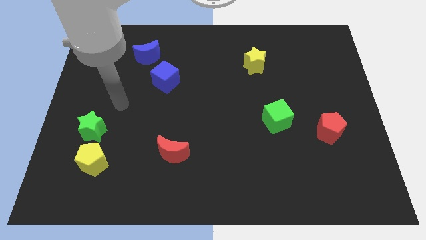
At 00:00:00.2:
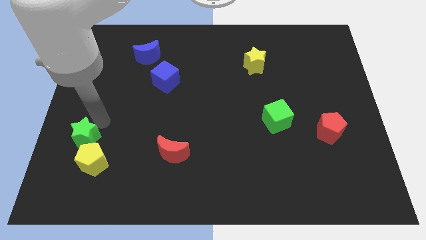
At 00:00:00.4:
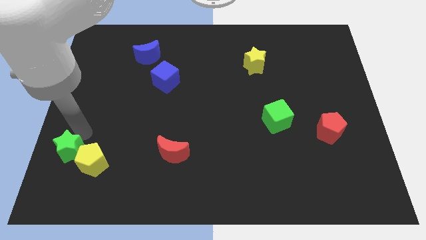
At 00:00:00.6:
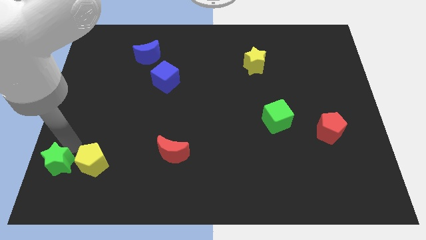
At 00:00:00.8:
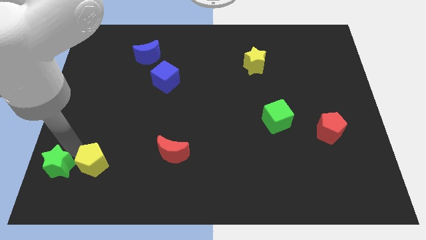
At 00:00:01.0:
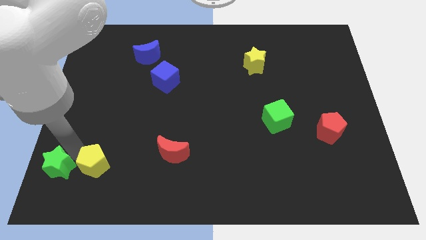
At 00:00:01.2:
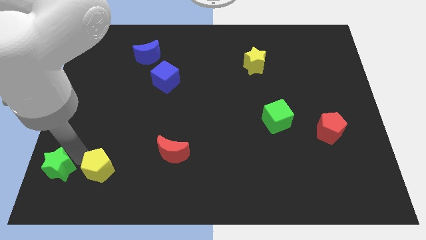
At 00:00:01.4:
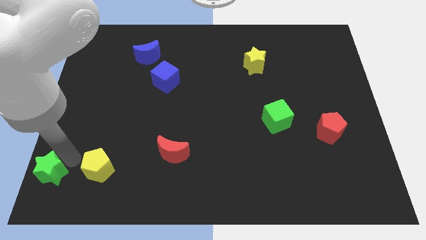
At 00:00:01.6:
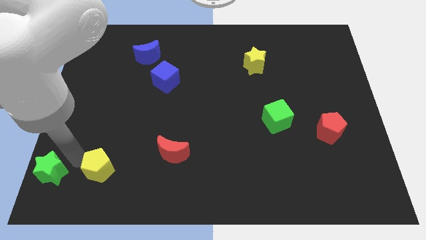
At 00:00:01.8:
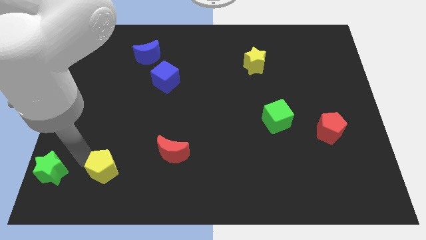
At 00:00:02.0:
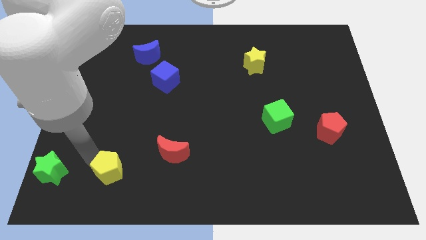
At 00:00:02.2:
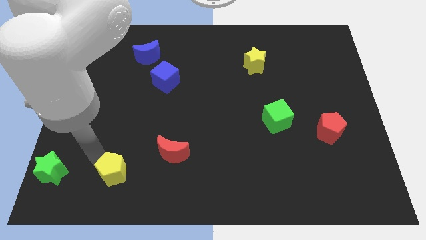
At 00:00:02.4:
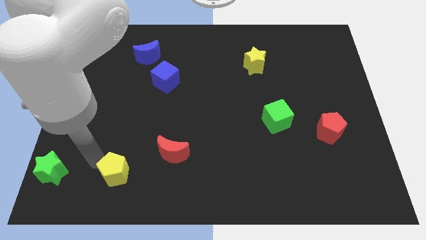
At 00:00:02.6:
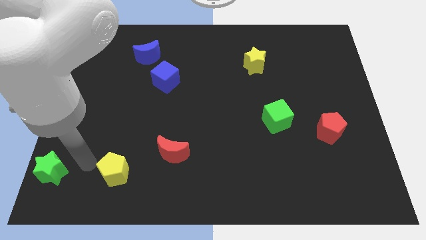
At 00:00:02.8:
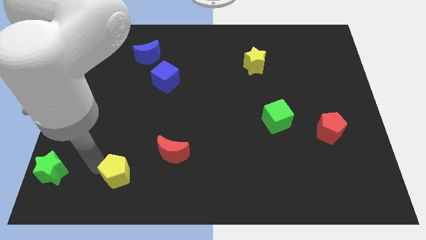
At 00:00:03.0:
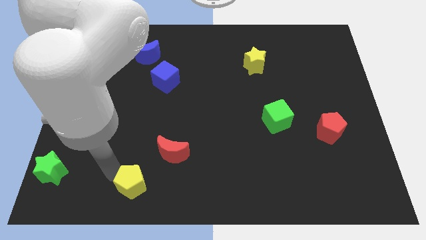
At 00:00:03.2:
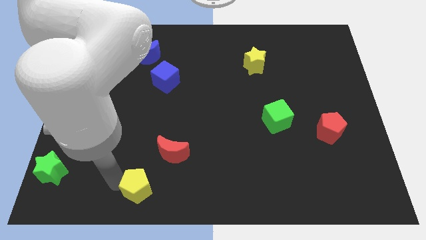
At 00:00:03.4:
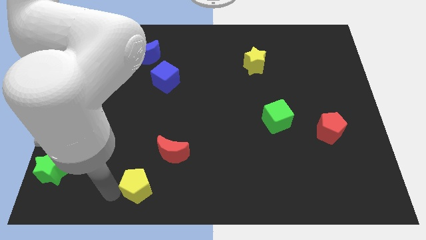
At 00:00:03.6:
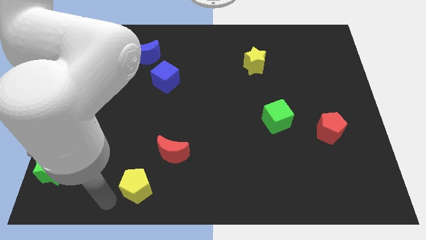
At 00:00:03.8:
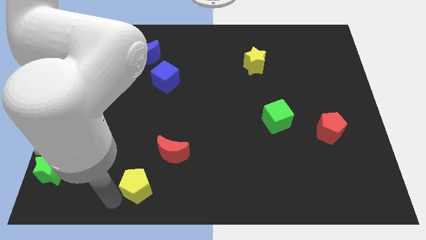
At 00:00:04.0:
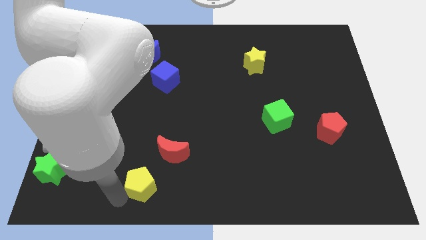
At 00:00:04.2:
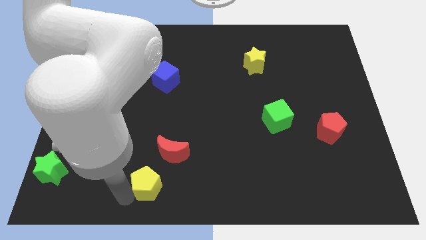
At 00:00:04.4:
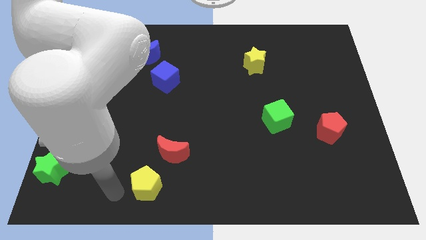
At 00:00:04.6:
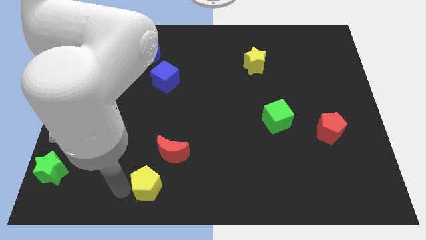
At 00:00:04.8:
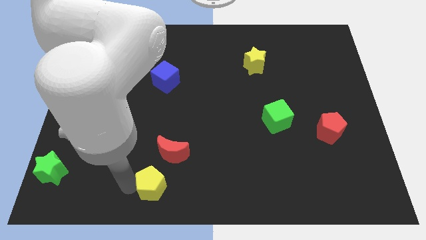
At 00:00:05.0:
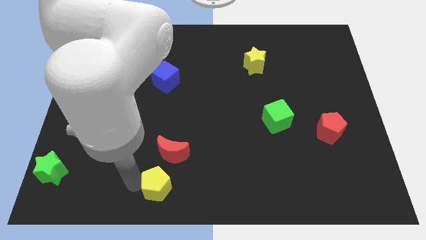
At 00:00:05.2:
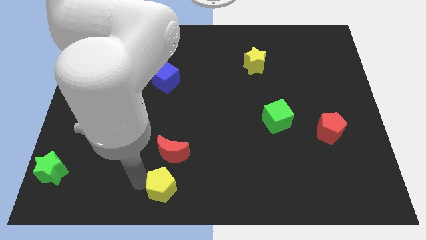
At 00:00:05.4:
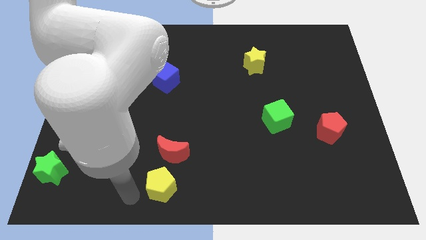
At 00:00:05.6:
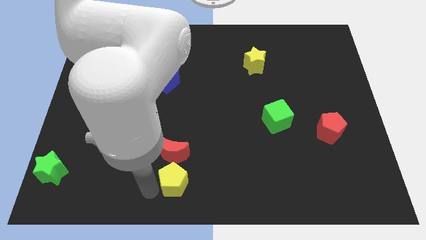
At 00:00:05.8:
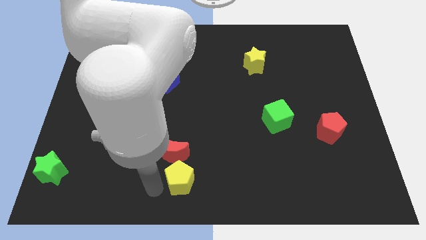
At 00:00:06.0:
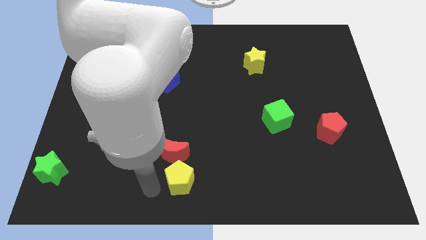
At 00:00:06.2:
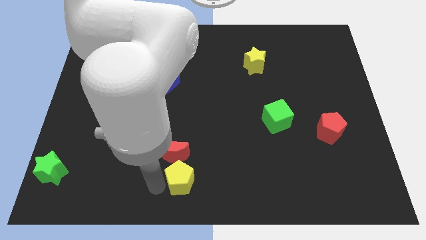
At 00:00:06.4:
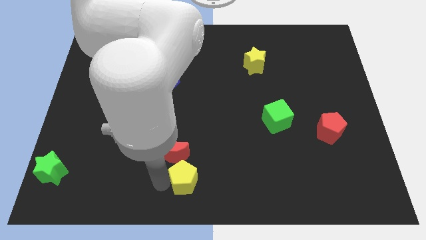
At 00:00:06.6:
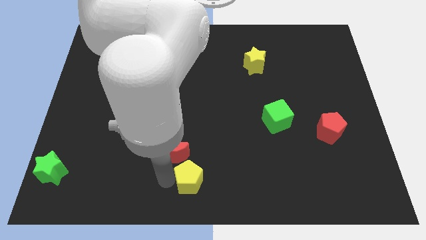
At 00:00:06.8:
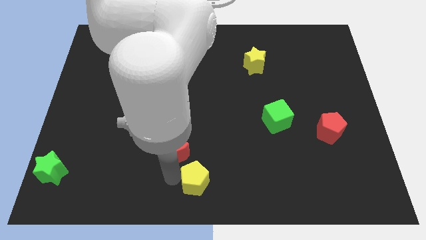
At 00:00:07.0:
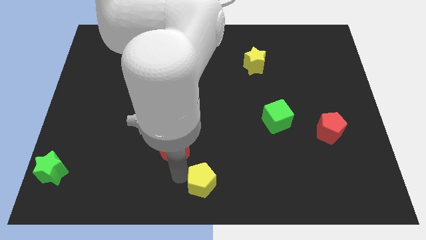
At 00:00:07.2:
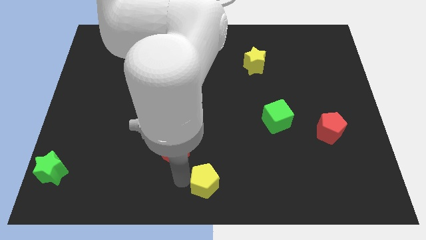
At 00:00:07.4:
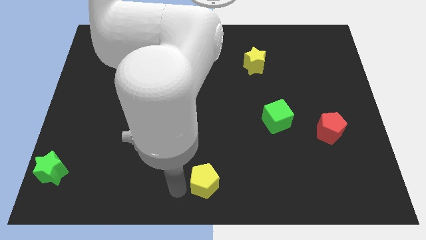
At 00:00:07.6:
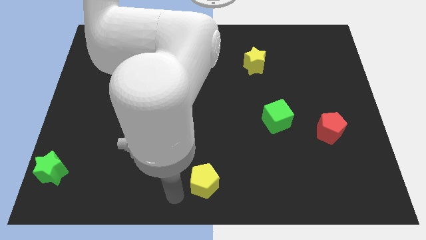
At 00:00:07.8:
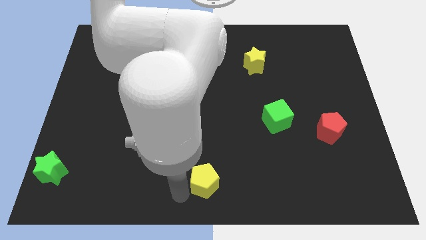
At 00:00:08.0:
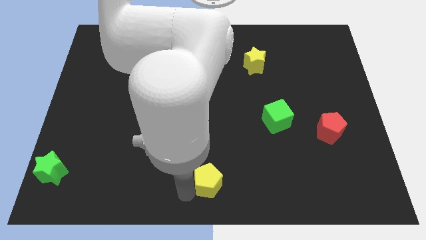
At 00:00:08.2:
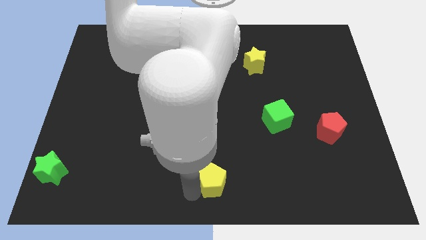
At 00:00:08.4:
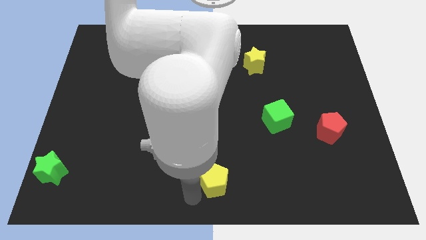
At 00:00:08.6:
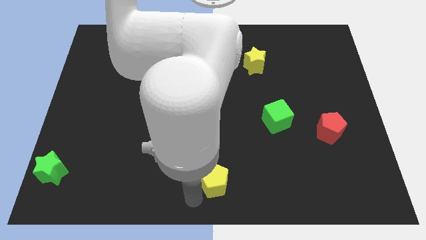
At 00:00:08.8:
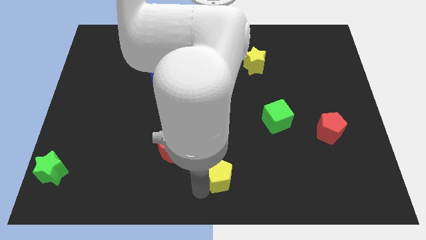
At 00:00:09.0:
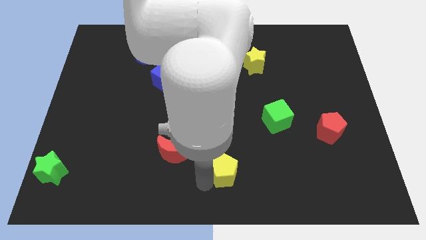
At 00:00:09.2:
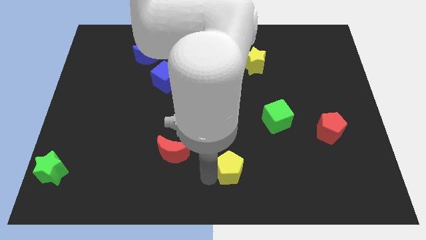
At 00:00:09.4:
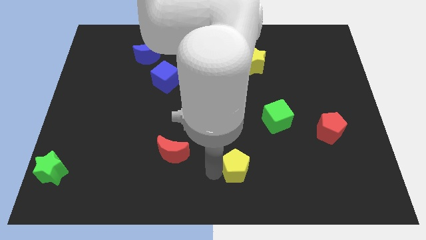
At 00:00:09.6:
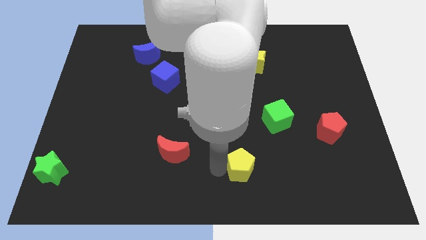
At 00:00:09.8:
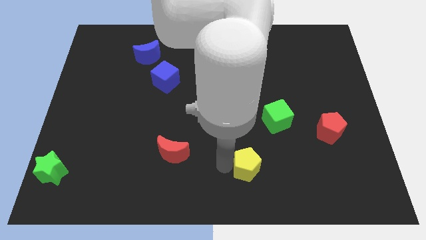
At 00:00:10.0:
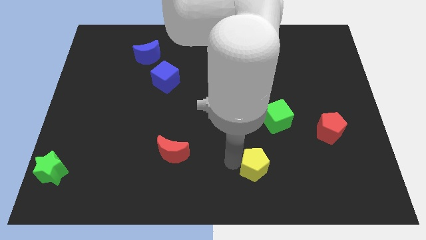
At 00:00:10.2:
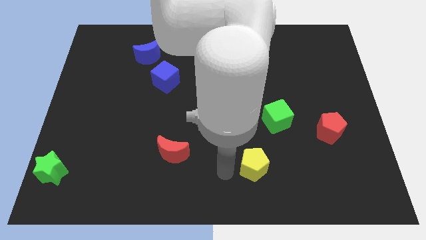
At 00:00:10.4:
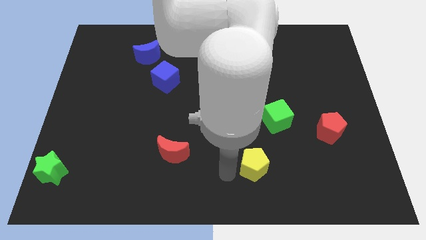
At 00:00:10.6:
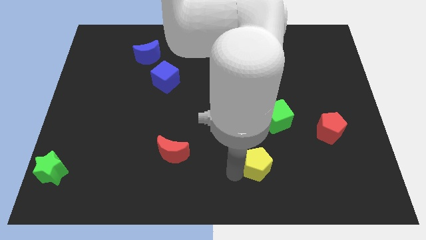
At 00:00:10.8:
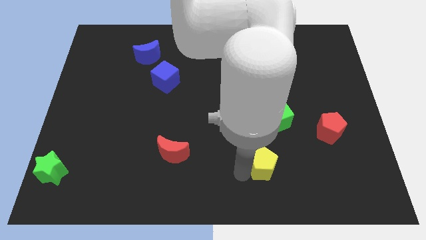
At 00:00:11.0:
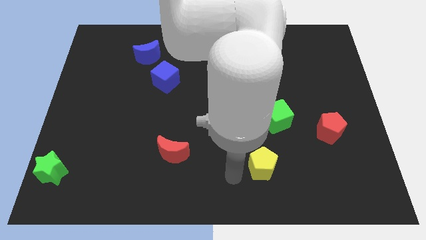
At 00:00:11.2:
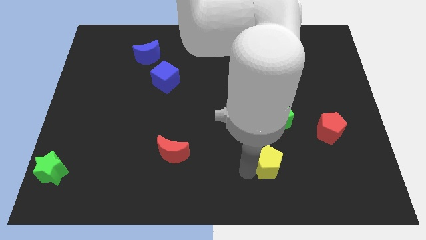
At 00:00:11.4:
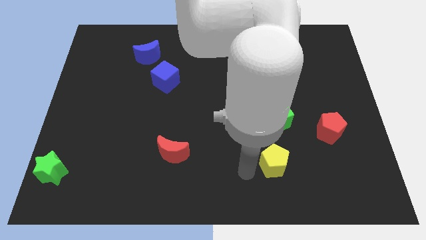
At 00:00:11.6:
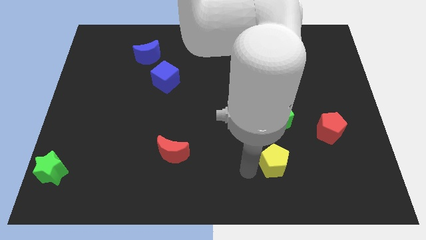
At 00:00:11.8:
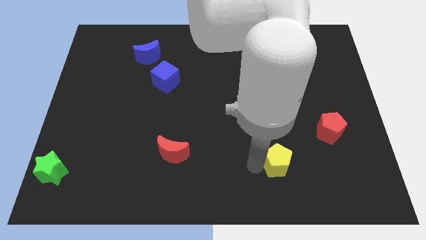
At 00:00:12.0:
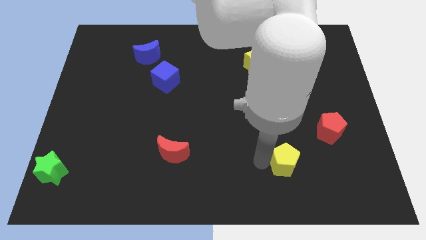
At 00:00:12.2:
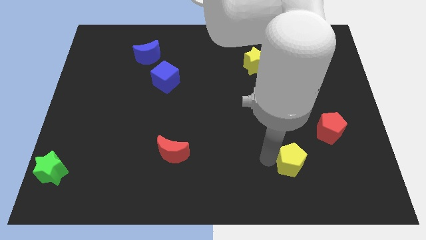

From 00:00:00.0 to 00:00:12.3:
slide the yellow pentagon to the bottom left of the red pentagon
